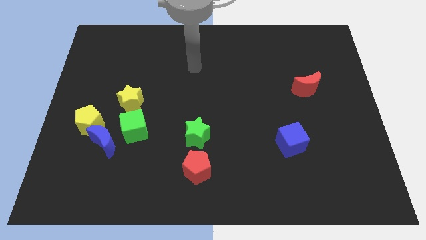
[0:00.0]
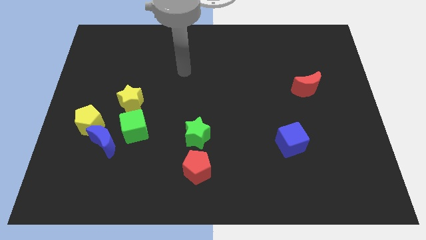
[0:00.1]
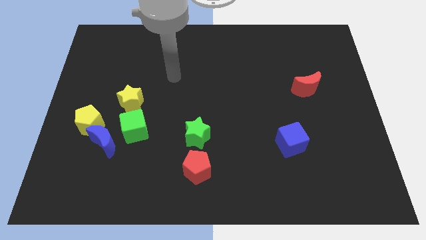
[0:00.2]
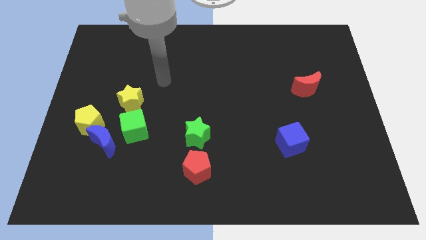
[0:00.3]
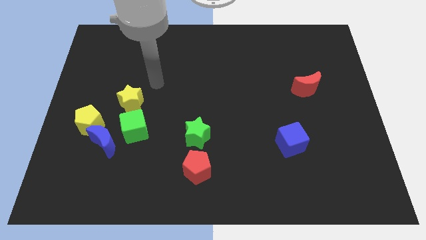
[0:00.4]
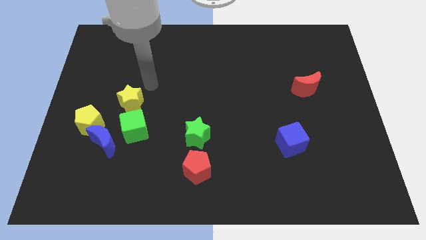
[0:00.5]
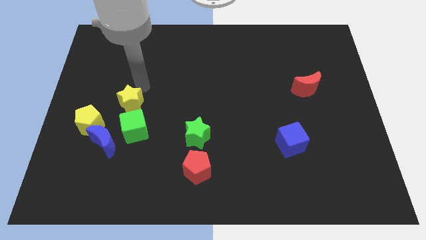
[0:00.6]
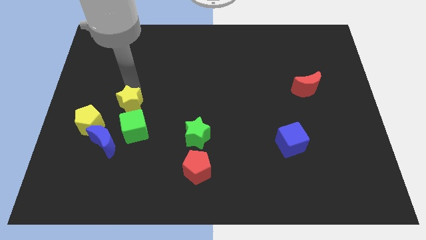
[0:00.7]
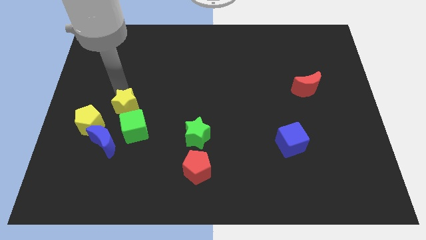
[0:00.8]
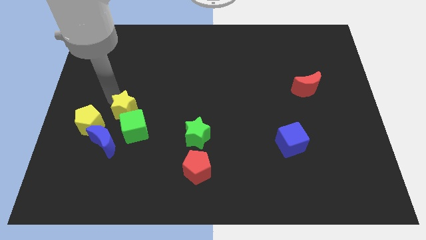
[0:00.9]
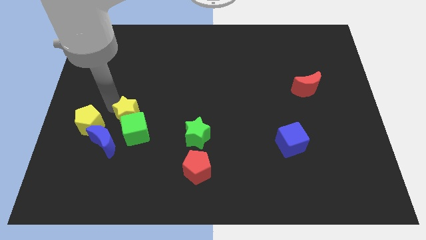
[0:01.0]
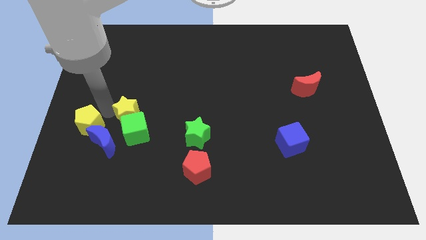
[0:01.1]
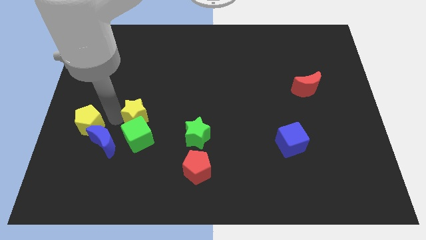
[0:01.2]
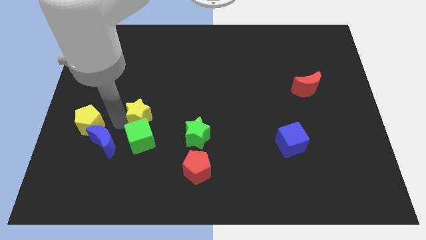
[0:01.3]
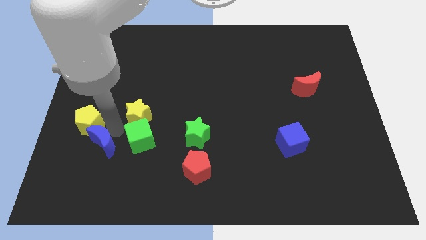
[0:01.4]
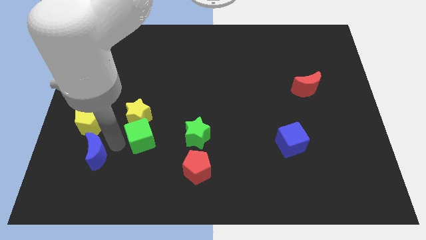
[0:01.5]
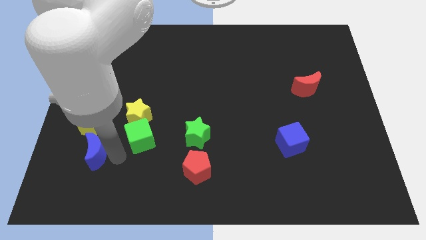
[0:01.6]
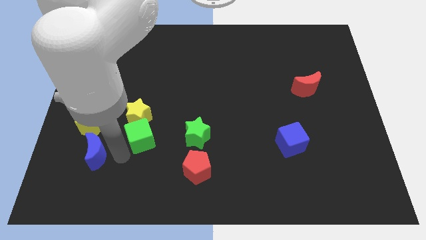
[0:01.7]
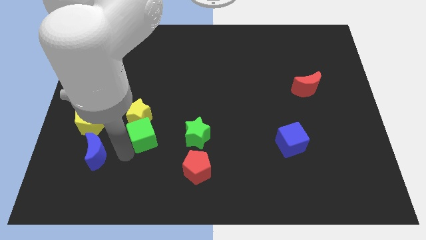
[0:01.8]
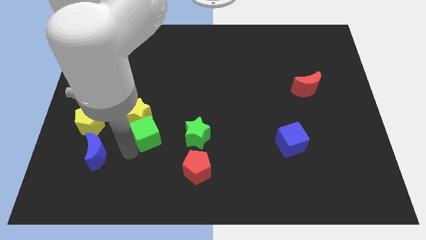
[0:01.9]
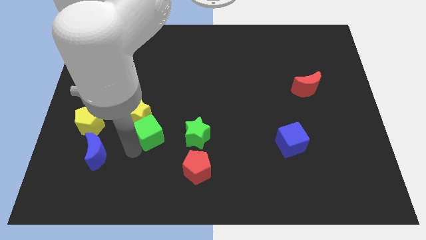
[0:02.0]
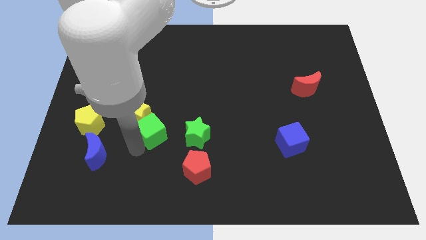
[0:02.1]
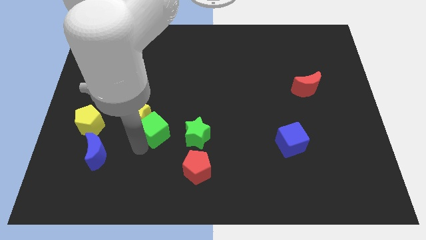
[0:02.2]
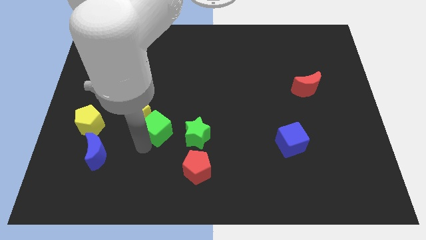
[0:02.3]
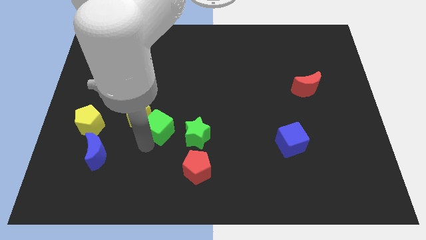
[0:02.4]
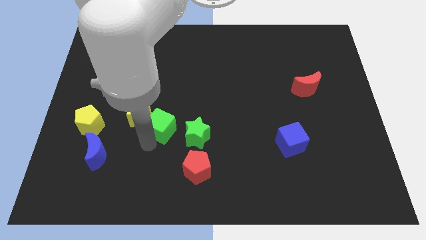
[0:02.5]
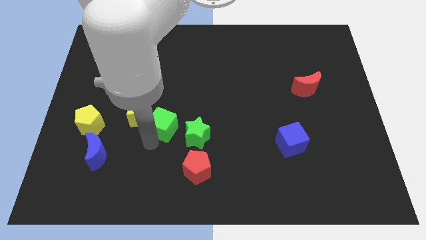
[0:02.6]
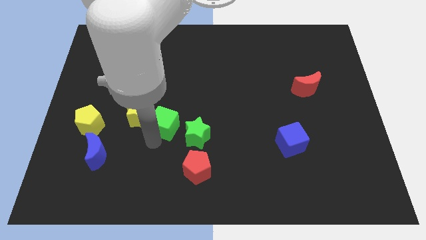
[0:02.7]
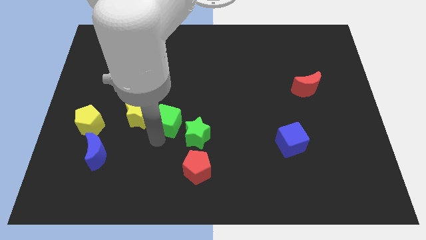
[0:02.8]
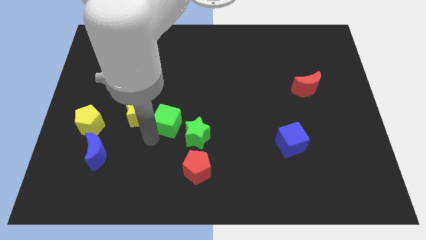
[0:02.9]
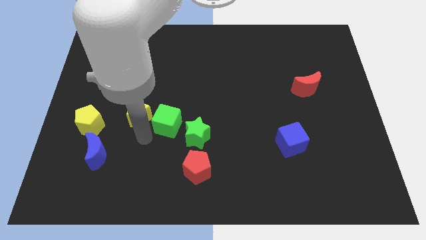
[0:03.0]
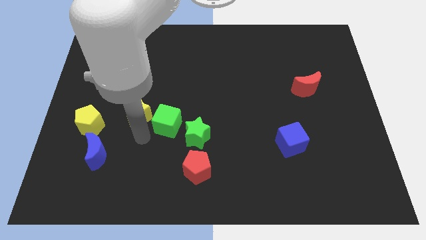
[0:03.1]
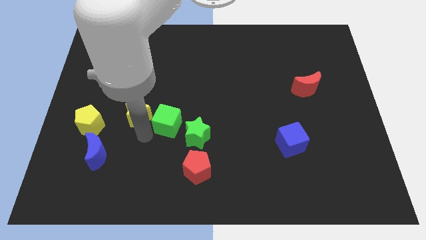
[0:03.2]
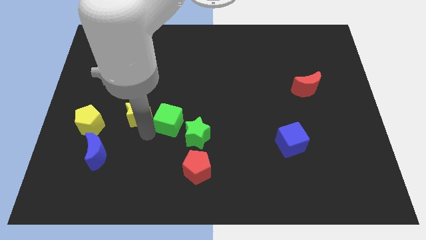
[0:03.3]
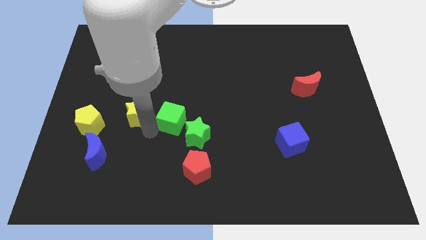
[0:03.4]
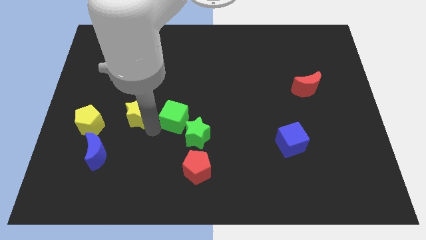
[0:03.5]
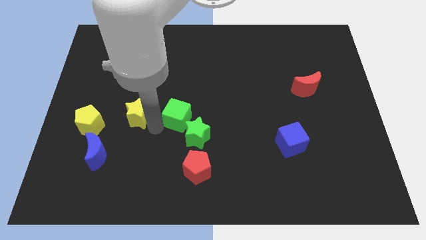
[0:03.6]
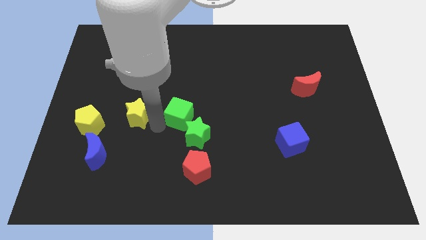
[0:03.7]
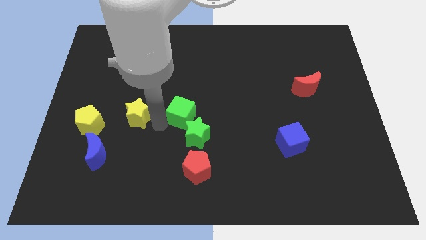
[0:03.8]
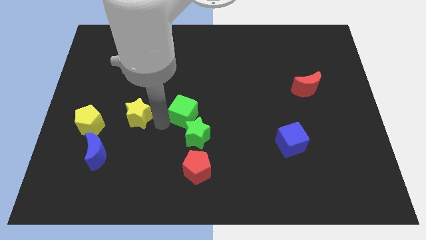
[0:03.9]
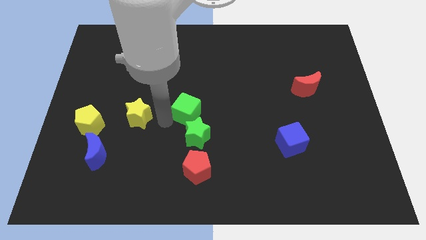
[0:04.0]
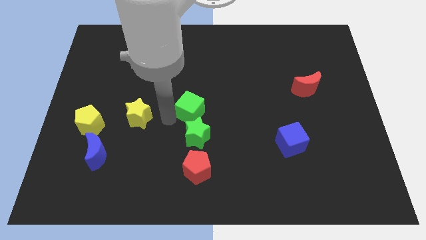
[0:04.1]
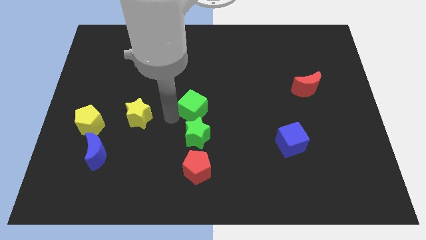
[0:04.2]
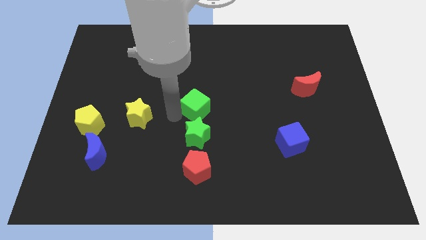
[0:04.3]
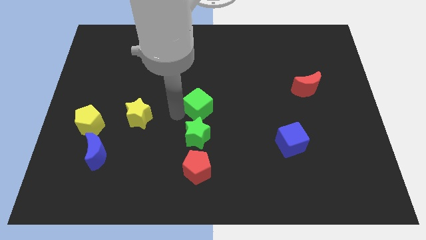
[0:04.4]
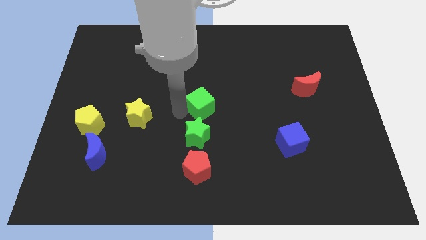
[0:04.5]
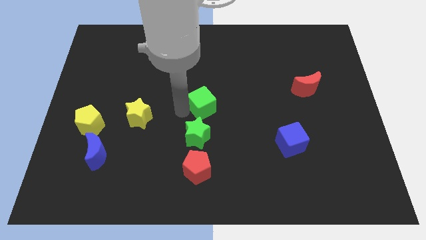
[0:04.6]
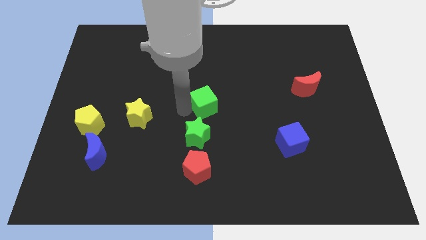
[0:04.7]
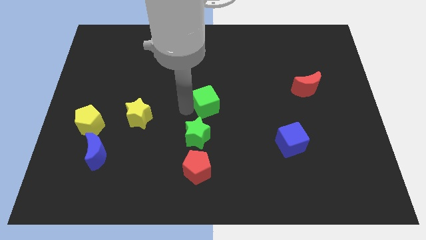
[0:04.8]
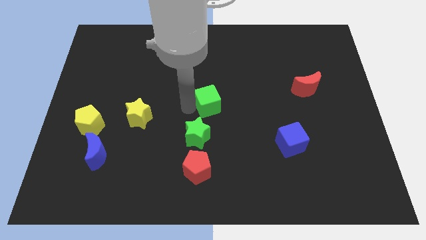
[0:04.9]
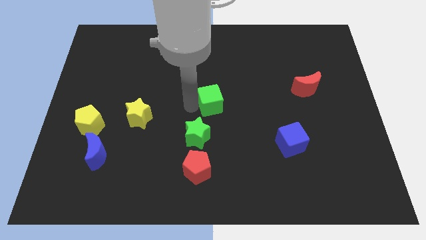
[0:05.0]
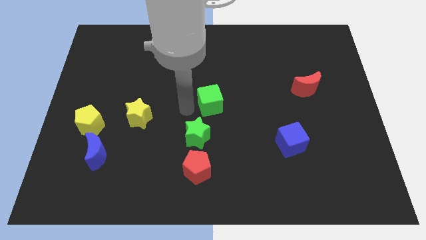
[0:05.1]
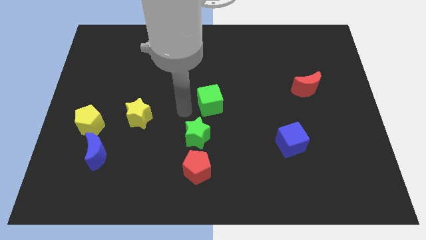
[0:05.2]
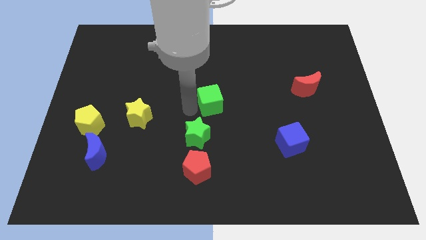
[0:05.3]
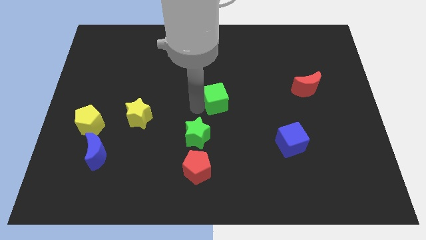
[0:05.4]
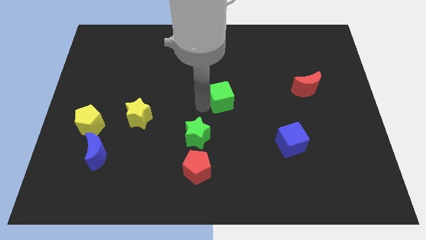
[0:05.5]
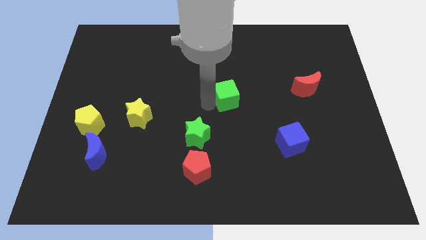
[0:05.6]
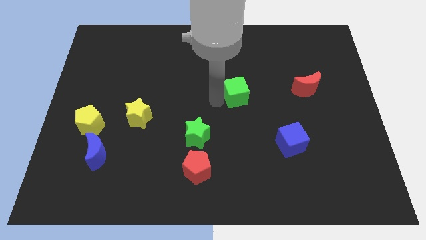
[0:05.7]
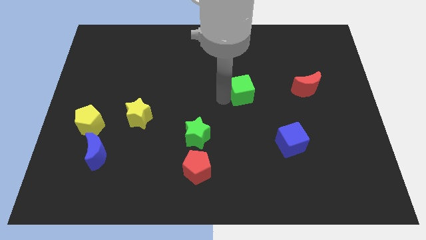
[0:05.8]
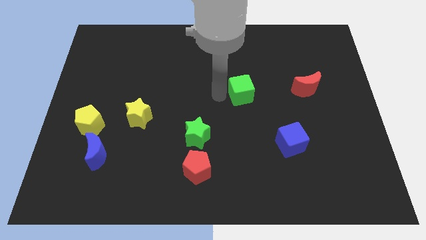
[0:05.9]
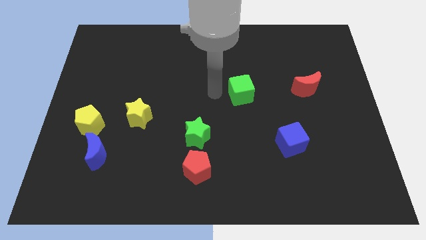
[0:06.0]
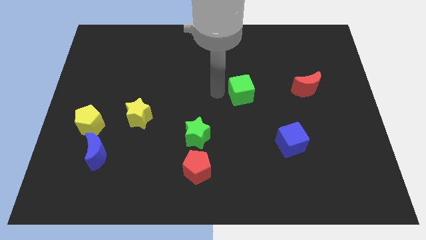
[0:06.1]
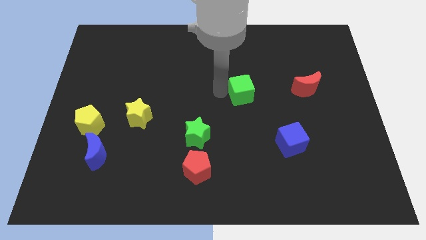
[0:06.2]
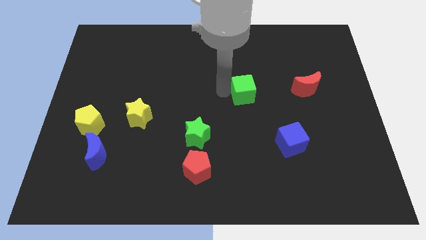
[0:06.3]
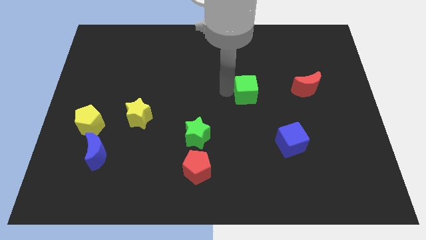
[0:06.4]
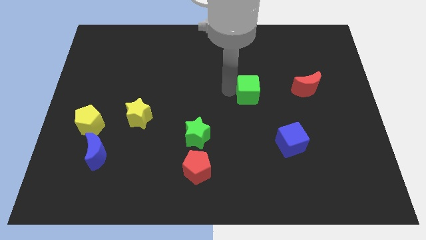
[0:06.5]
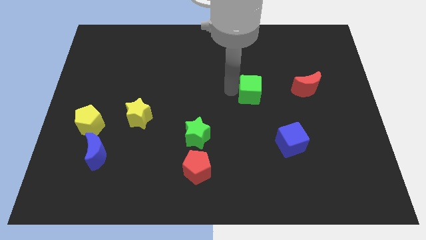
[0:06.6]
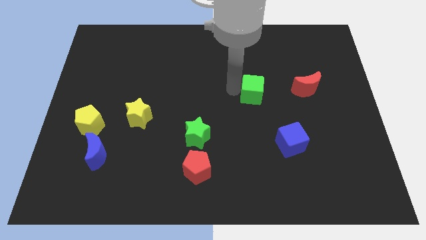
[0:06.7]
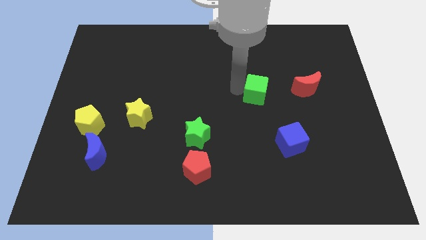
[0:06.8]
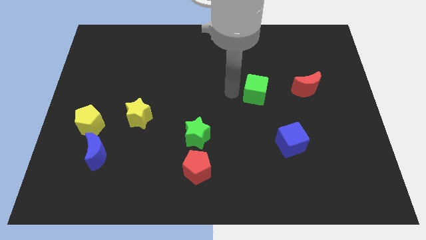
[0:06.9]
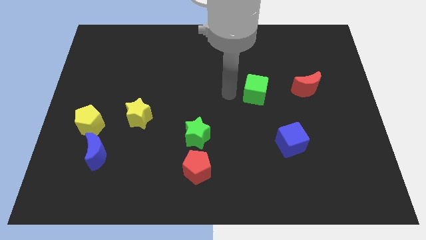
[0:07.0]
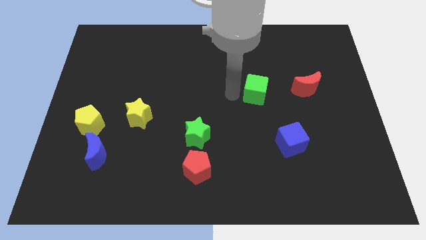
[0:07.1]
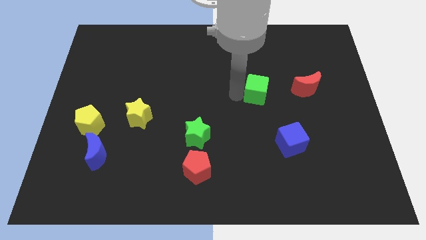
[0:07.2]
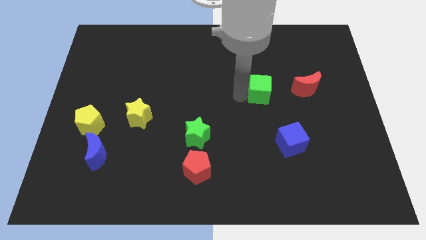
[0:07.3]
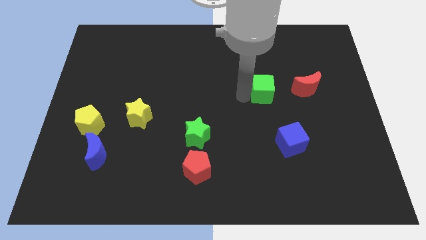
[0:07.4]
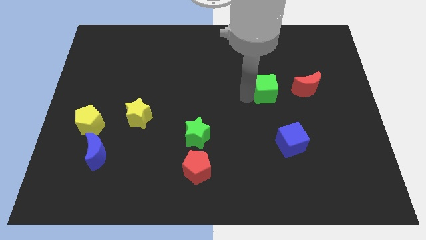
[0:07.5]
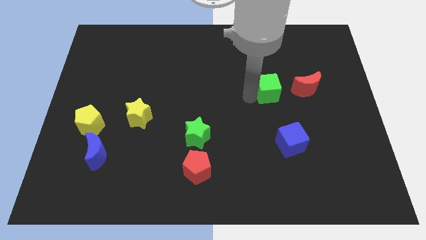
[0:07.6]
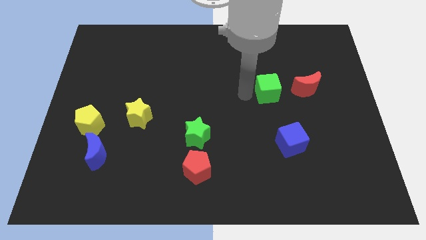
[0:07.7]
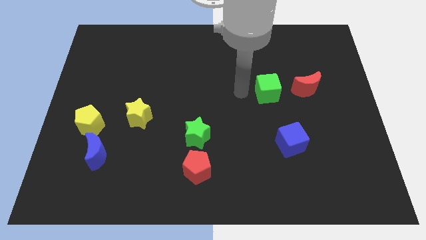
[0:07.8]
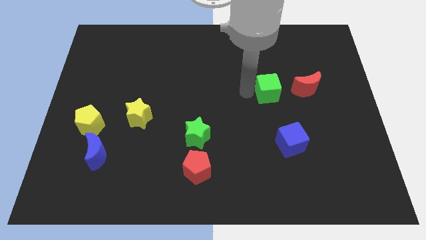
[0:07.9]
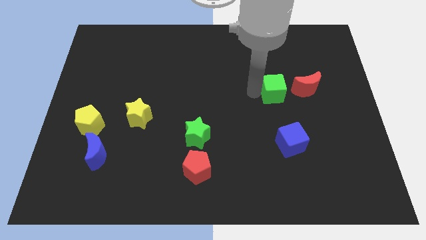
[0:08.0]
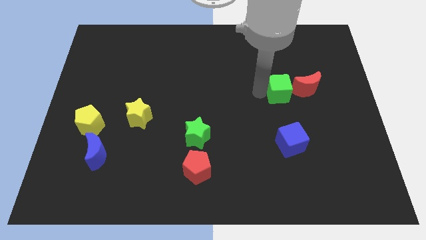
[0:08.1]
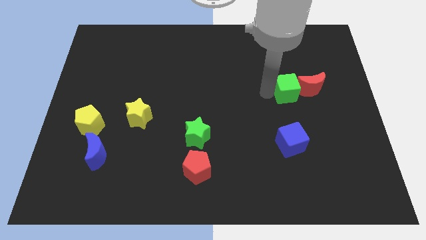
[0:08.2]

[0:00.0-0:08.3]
move the green cube close to the red moon
